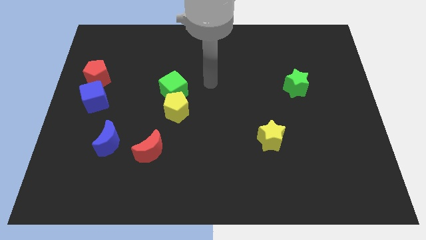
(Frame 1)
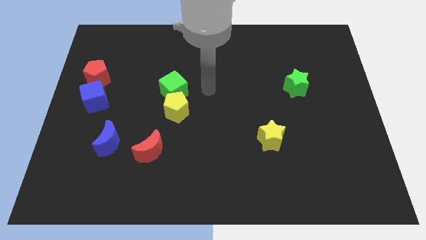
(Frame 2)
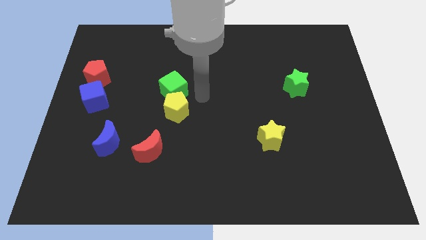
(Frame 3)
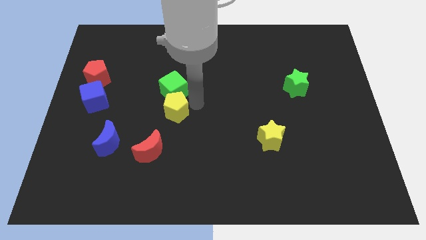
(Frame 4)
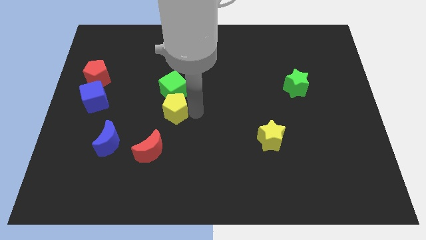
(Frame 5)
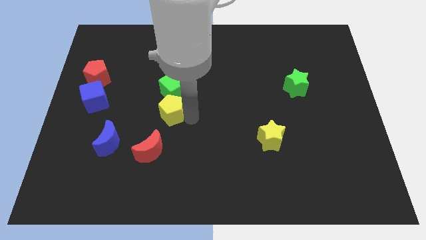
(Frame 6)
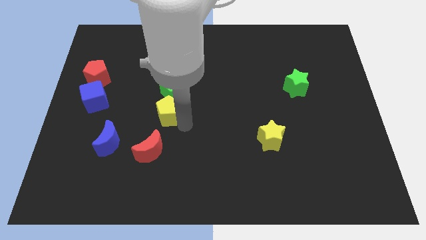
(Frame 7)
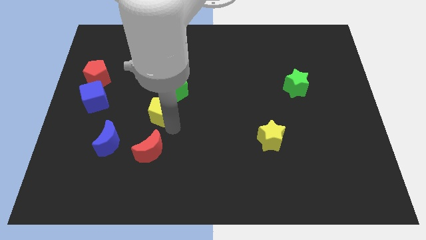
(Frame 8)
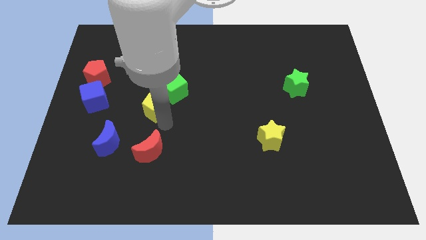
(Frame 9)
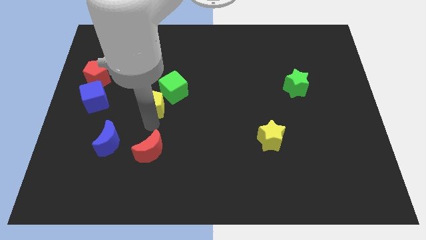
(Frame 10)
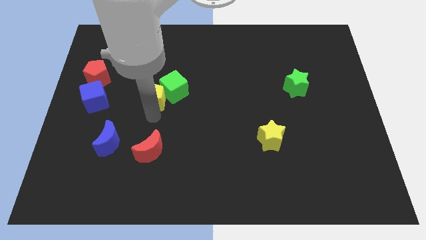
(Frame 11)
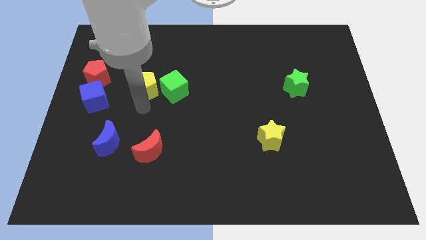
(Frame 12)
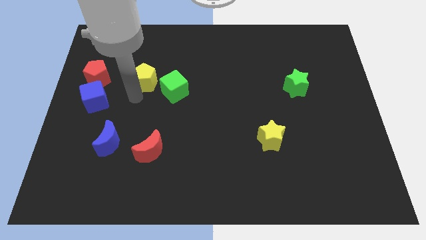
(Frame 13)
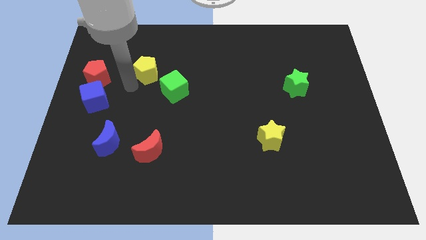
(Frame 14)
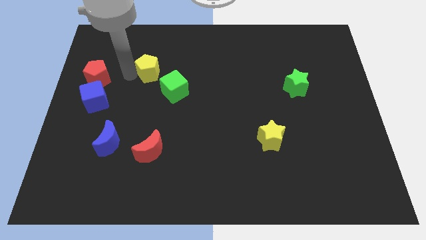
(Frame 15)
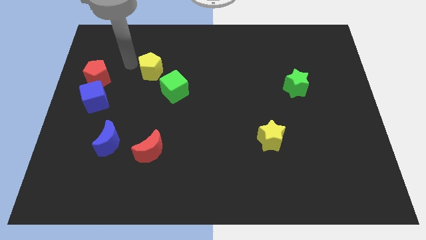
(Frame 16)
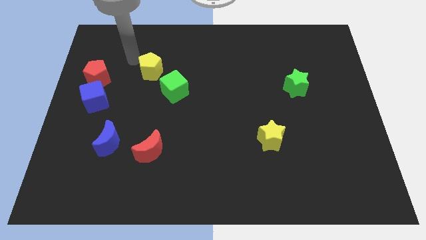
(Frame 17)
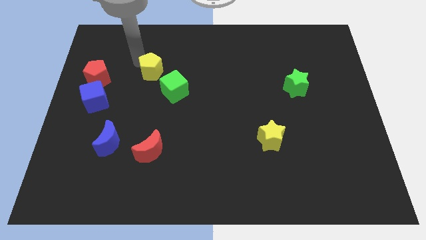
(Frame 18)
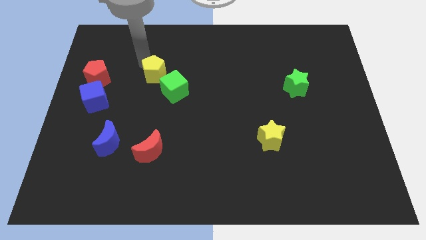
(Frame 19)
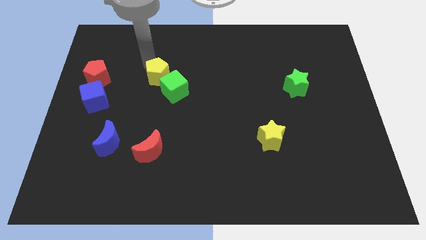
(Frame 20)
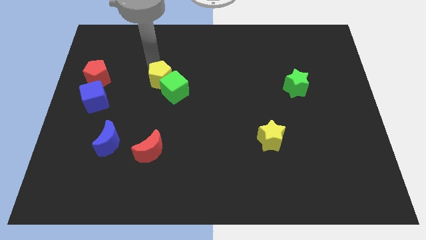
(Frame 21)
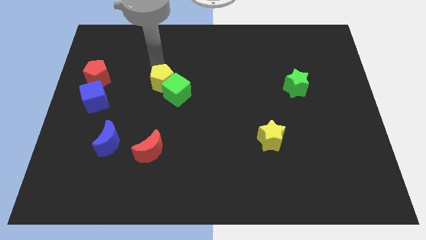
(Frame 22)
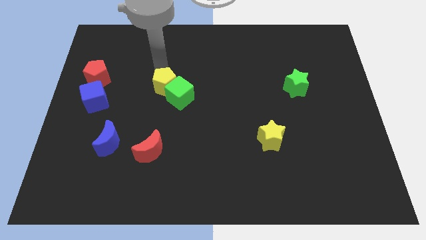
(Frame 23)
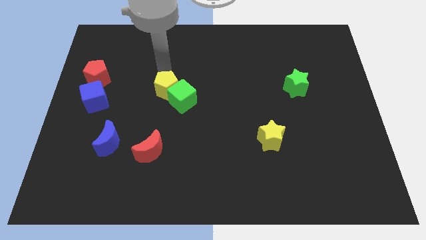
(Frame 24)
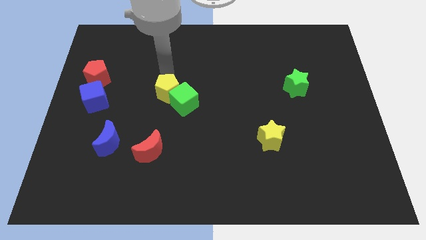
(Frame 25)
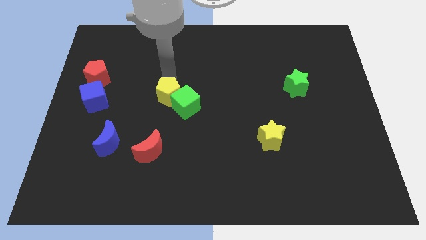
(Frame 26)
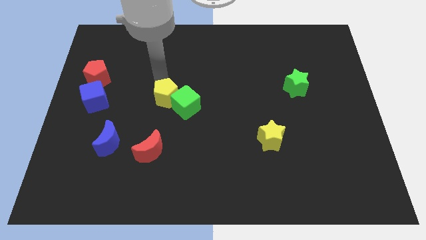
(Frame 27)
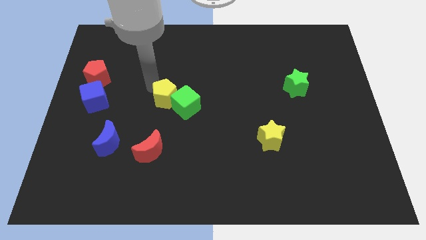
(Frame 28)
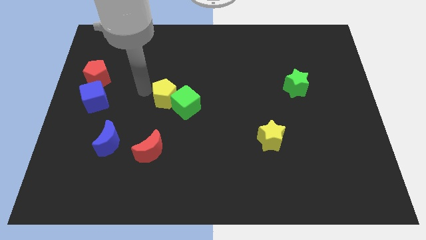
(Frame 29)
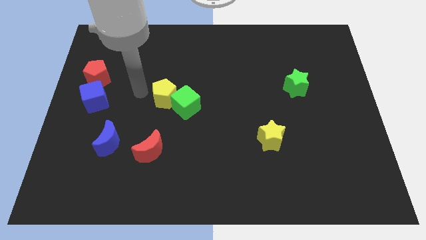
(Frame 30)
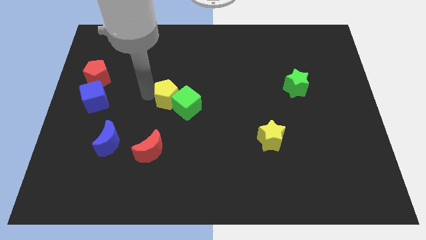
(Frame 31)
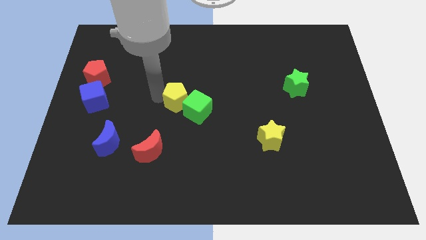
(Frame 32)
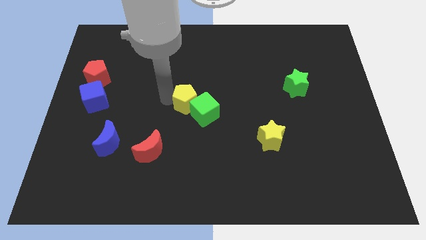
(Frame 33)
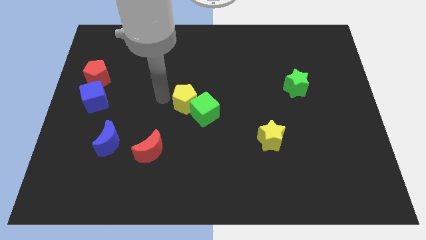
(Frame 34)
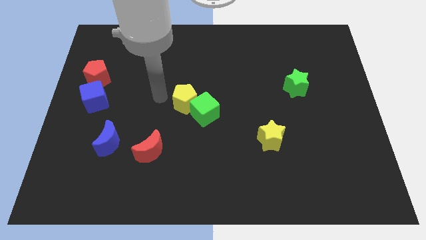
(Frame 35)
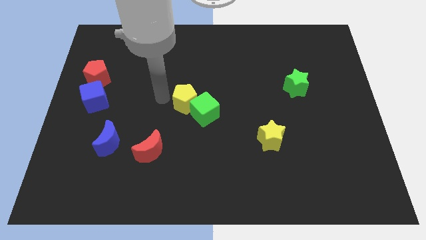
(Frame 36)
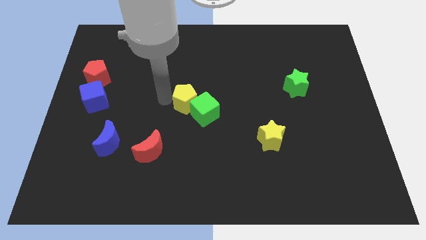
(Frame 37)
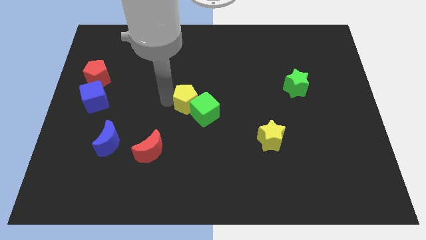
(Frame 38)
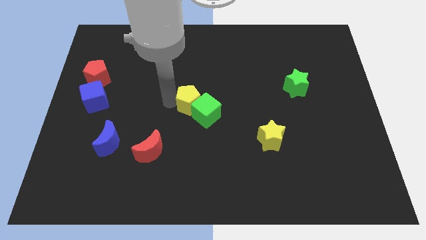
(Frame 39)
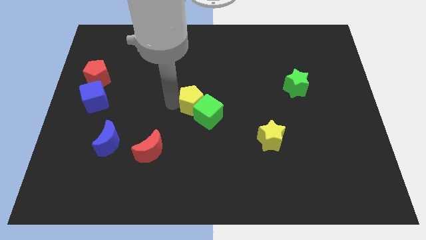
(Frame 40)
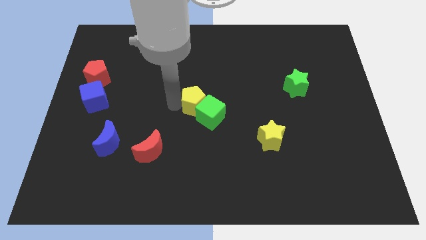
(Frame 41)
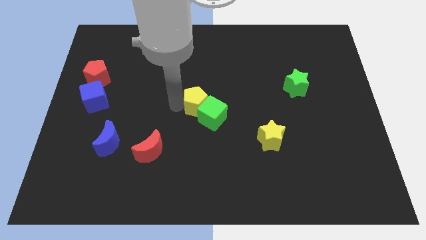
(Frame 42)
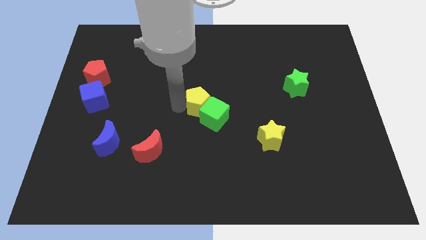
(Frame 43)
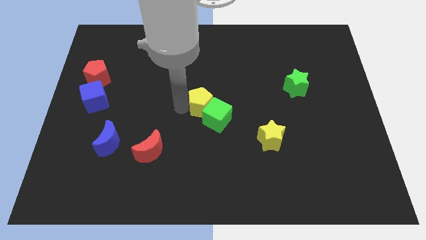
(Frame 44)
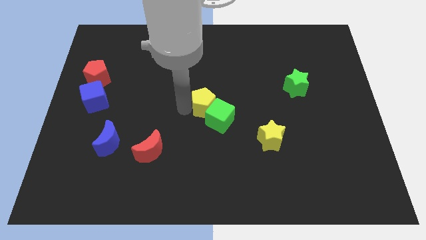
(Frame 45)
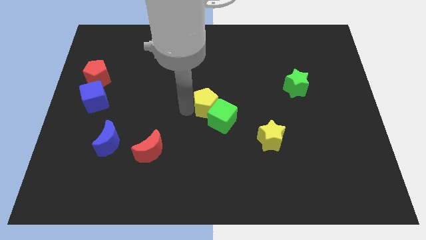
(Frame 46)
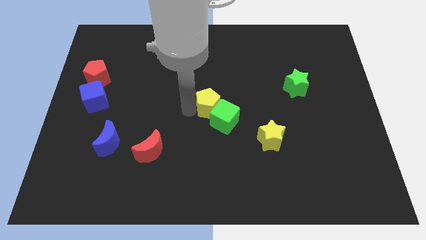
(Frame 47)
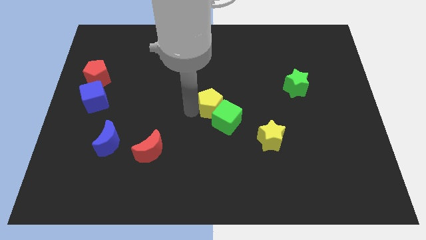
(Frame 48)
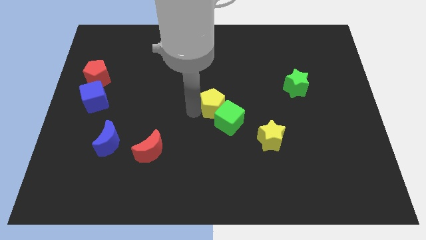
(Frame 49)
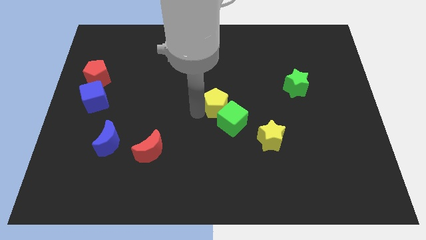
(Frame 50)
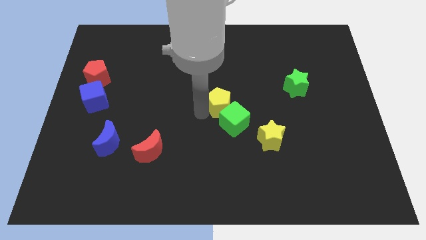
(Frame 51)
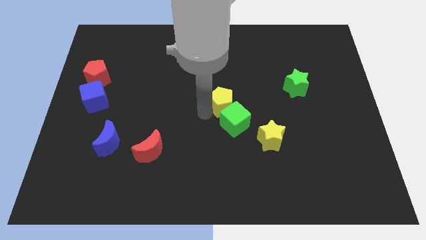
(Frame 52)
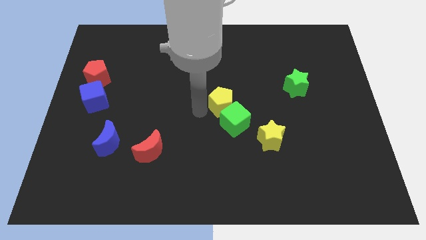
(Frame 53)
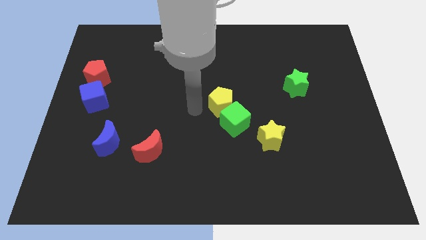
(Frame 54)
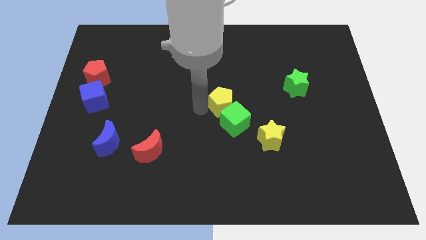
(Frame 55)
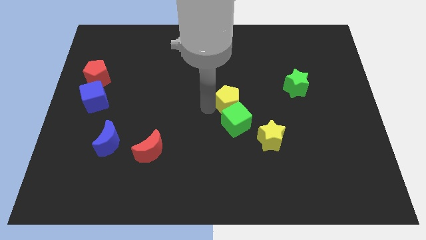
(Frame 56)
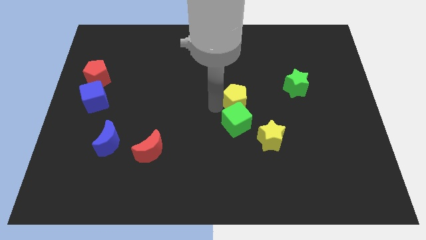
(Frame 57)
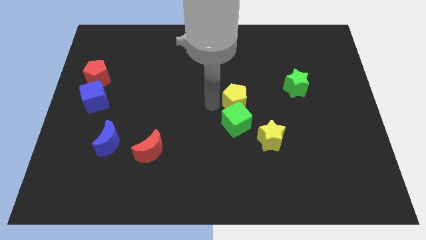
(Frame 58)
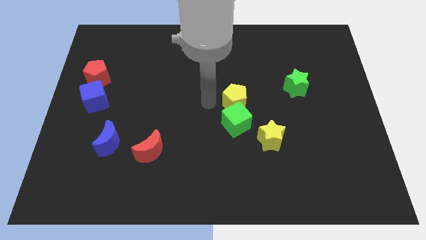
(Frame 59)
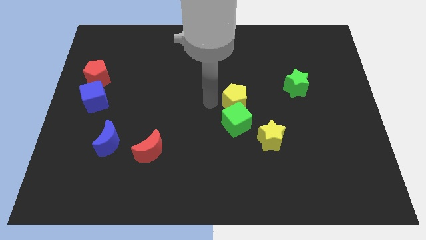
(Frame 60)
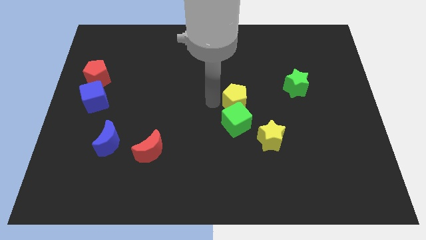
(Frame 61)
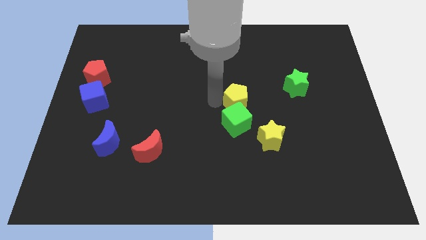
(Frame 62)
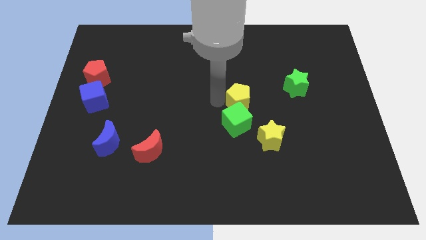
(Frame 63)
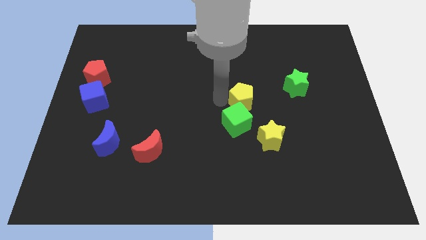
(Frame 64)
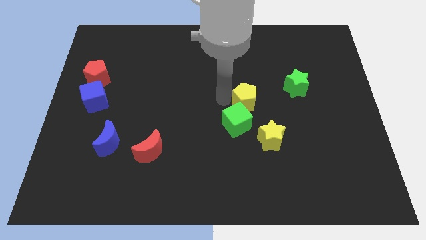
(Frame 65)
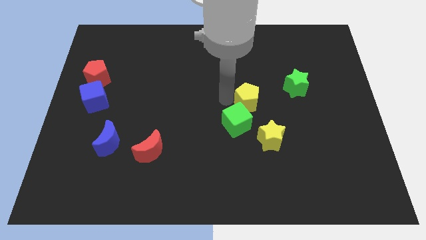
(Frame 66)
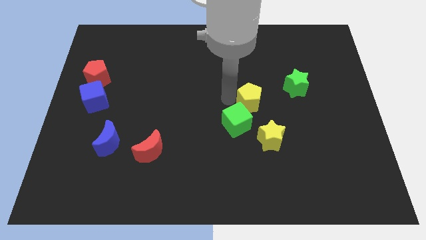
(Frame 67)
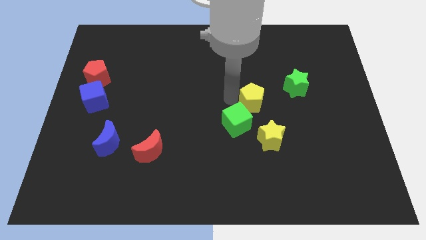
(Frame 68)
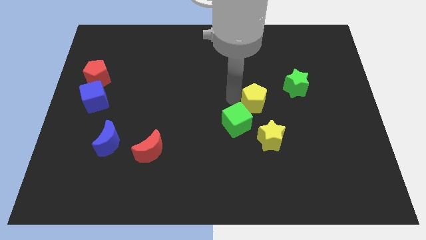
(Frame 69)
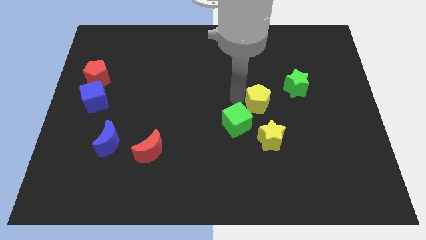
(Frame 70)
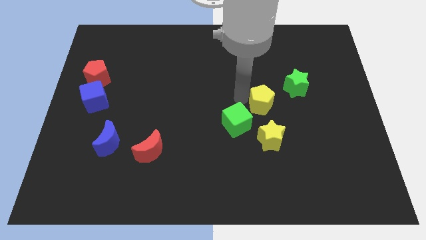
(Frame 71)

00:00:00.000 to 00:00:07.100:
move the yellow pentagon to the right

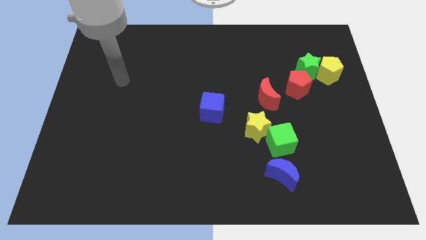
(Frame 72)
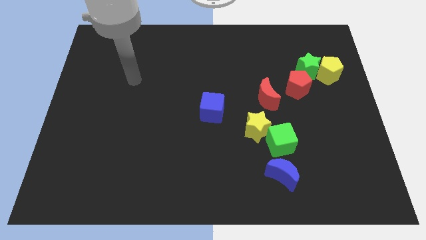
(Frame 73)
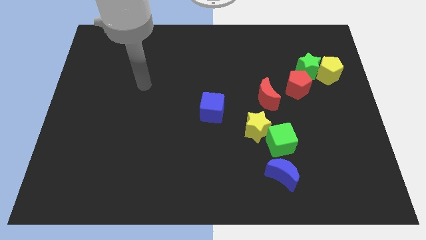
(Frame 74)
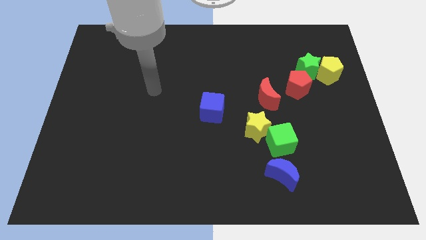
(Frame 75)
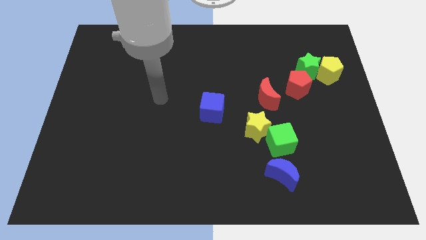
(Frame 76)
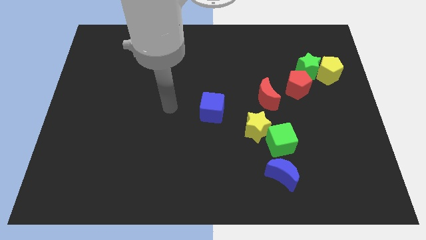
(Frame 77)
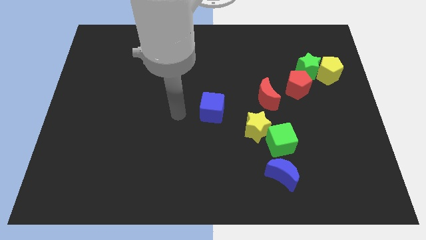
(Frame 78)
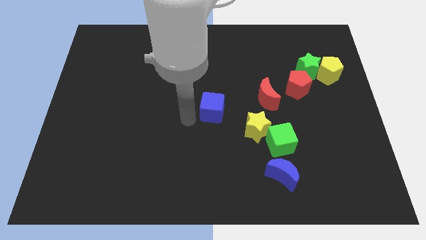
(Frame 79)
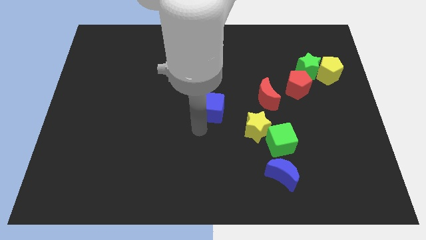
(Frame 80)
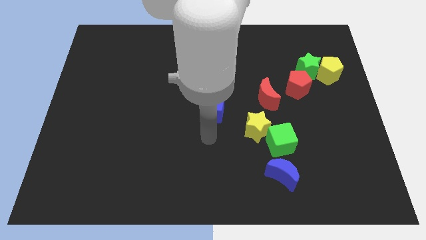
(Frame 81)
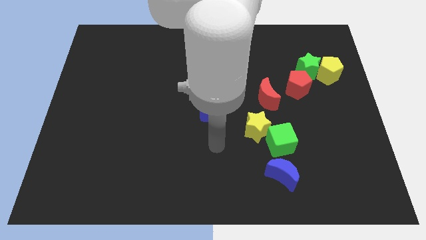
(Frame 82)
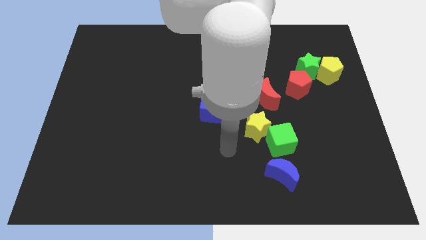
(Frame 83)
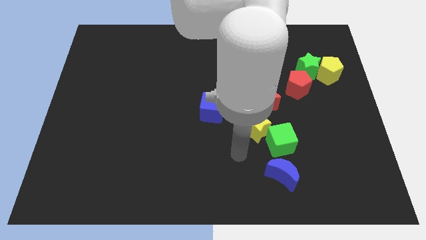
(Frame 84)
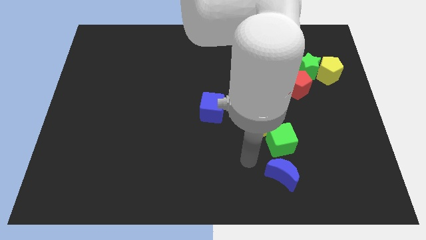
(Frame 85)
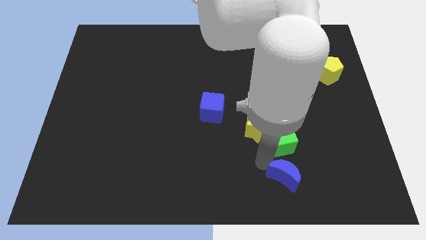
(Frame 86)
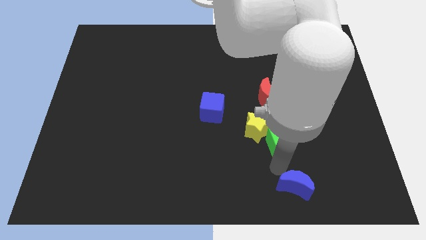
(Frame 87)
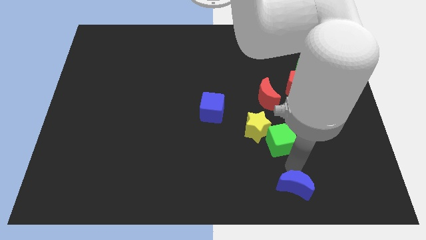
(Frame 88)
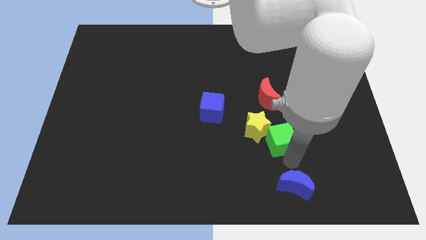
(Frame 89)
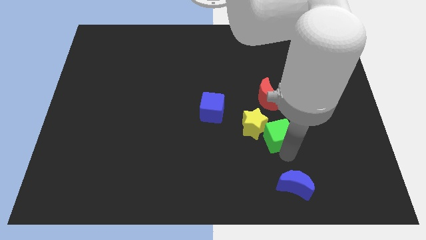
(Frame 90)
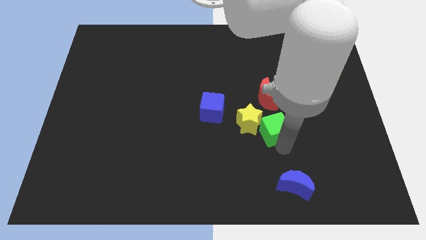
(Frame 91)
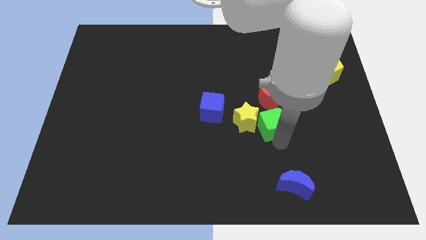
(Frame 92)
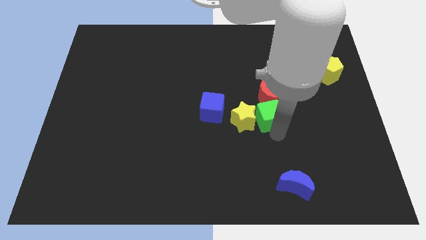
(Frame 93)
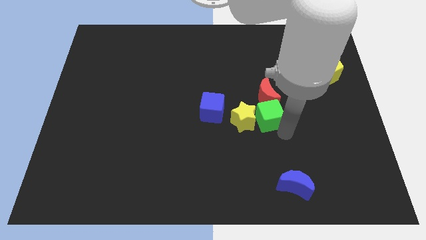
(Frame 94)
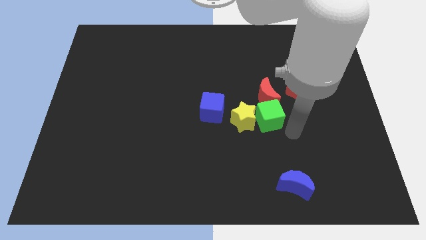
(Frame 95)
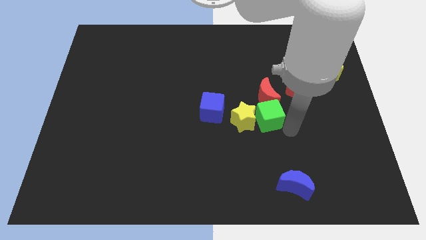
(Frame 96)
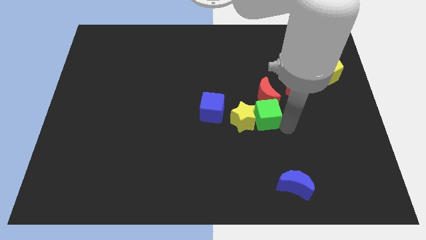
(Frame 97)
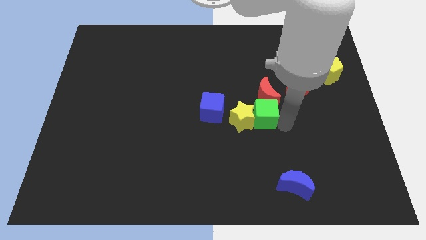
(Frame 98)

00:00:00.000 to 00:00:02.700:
slightly push the green cube up and then to the left
